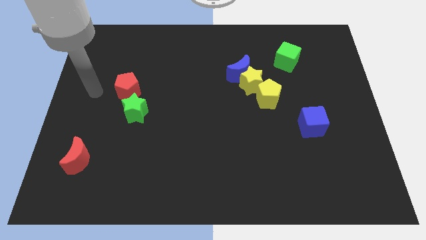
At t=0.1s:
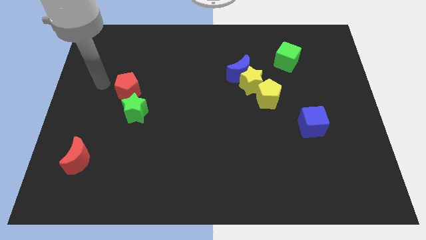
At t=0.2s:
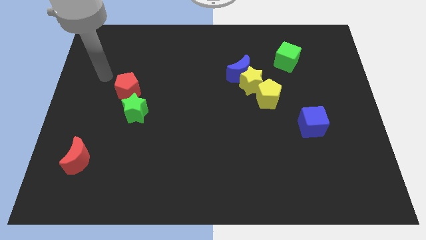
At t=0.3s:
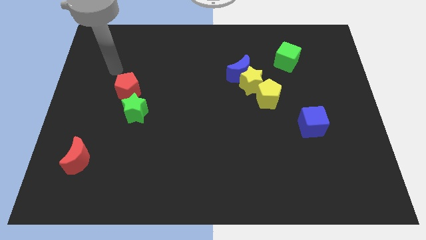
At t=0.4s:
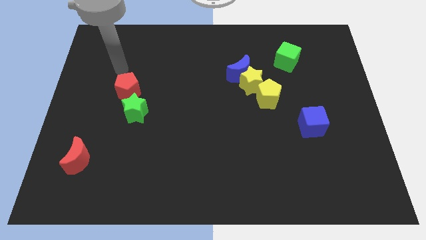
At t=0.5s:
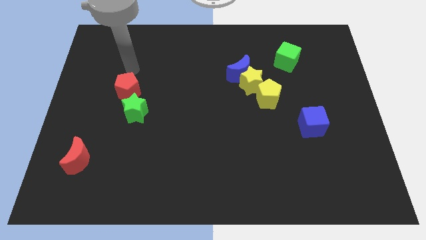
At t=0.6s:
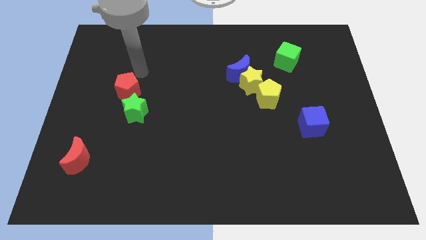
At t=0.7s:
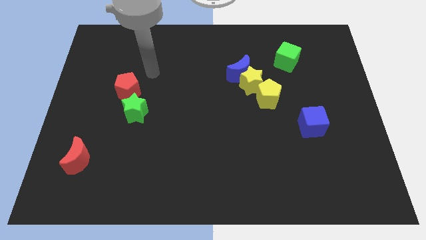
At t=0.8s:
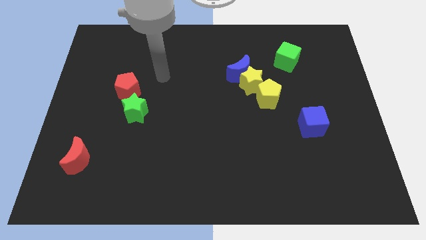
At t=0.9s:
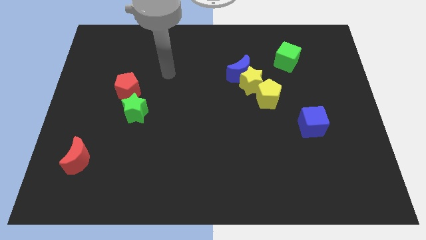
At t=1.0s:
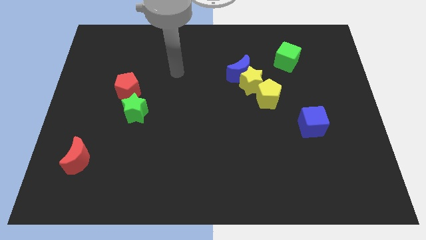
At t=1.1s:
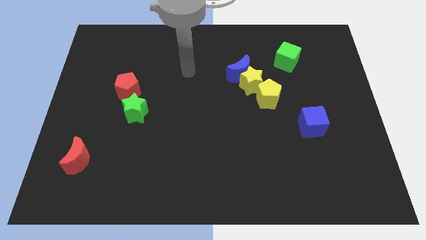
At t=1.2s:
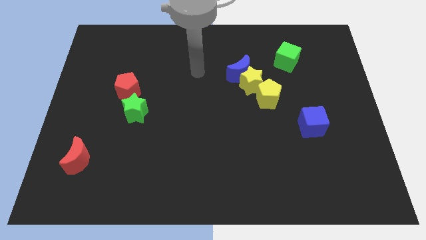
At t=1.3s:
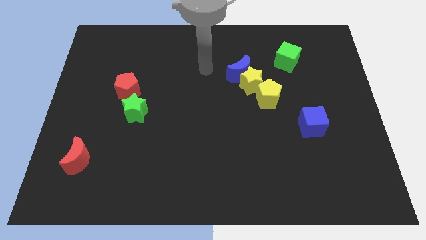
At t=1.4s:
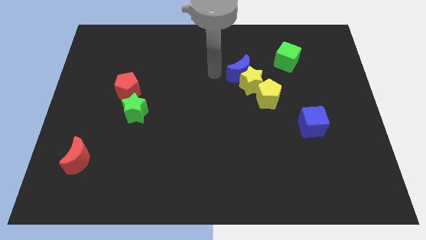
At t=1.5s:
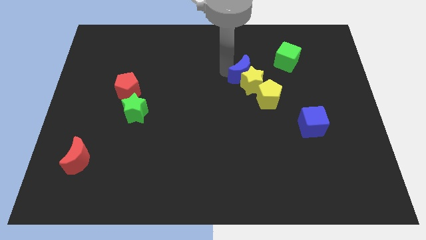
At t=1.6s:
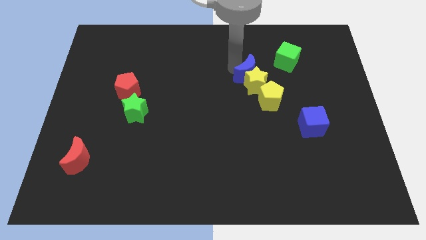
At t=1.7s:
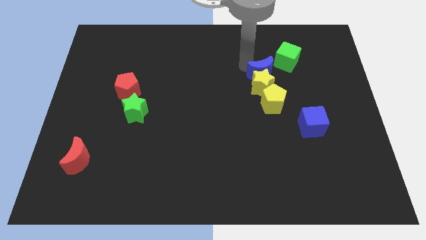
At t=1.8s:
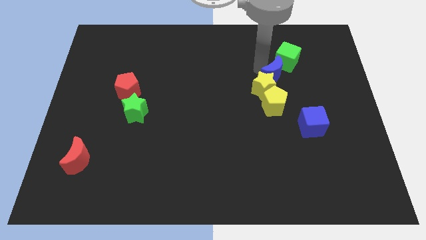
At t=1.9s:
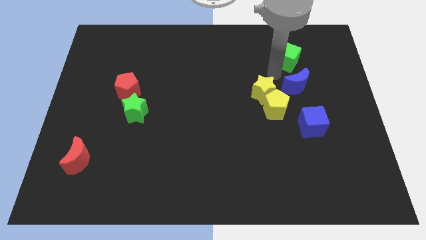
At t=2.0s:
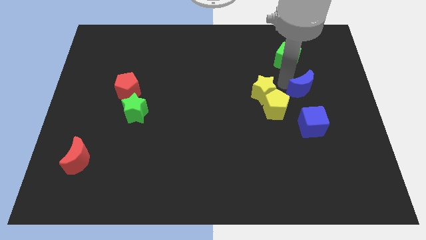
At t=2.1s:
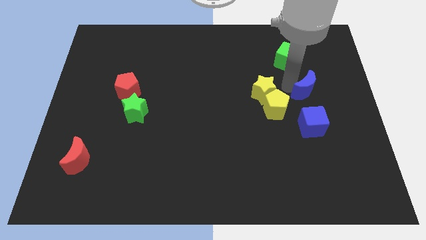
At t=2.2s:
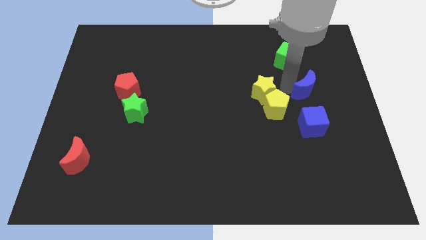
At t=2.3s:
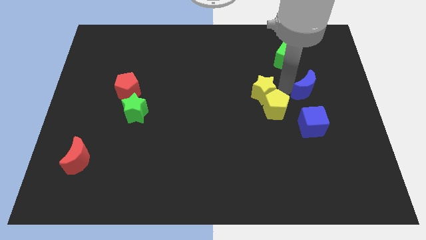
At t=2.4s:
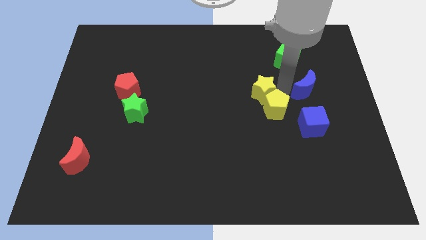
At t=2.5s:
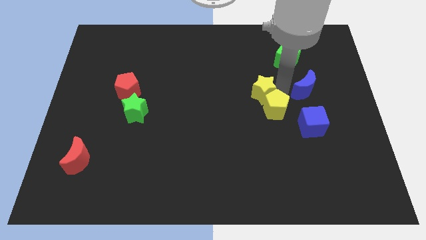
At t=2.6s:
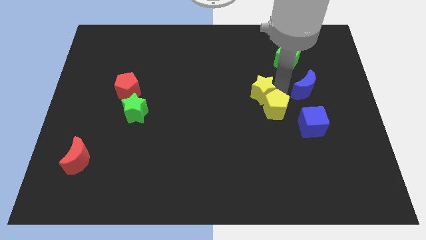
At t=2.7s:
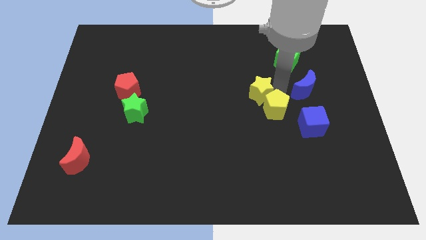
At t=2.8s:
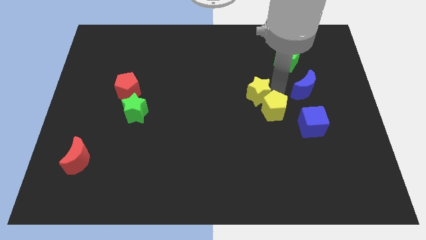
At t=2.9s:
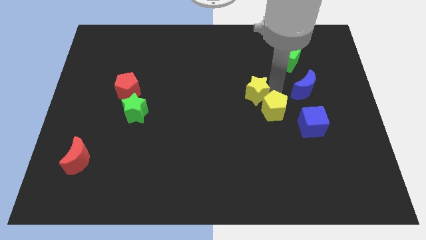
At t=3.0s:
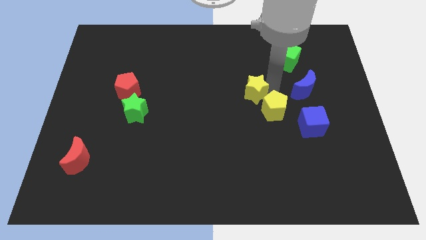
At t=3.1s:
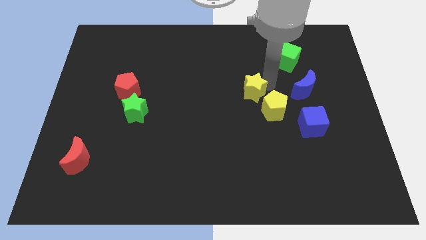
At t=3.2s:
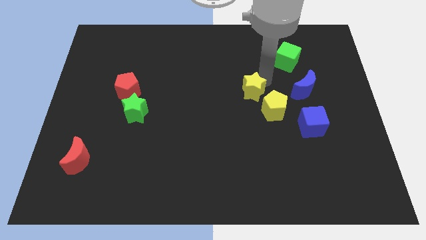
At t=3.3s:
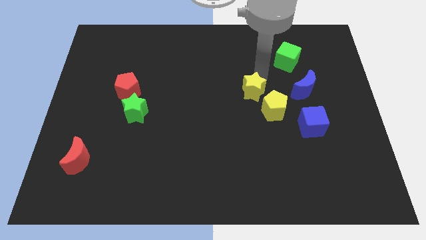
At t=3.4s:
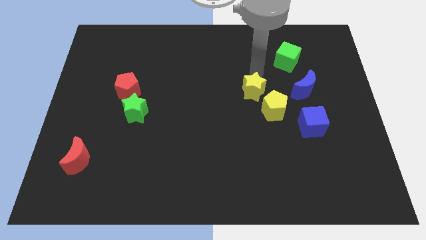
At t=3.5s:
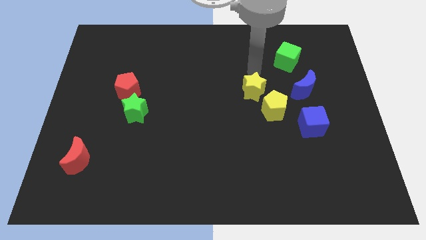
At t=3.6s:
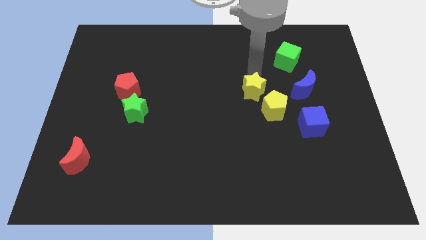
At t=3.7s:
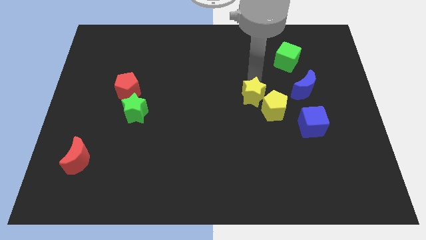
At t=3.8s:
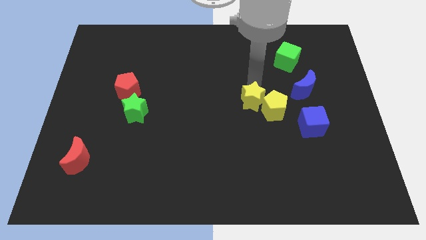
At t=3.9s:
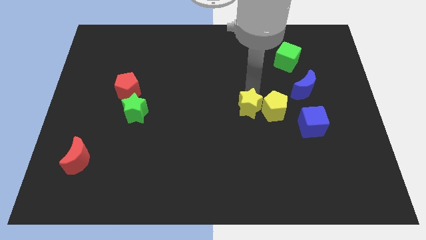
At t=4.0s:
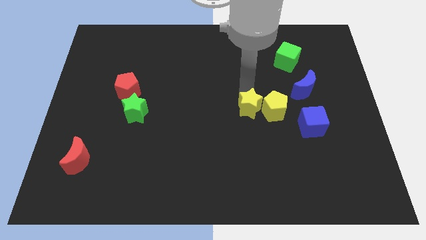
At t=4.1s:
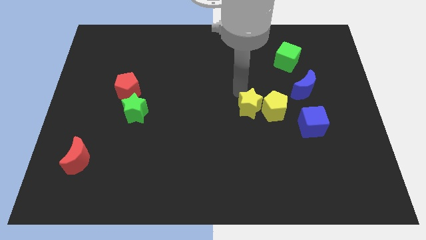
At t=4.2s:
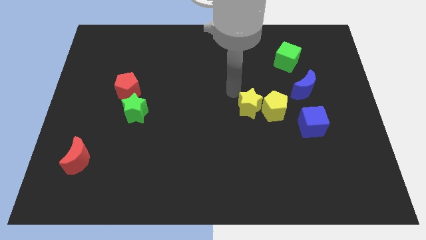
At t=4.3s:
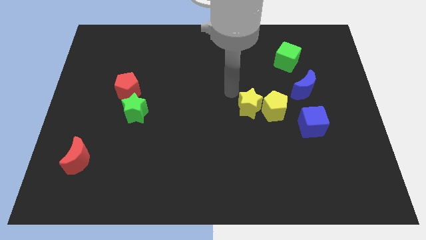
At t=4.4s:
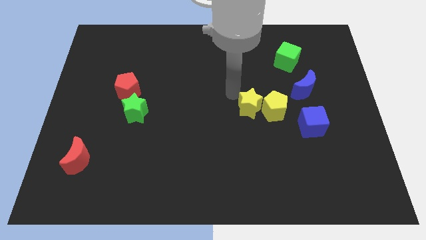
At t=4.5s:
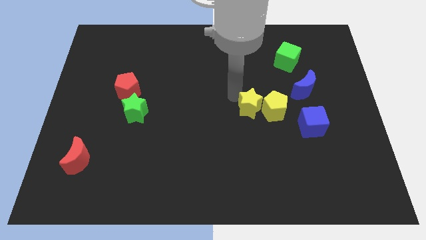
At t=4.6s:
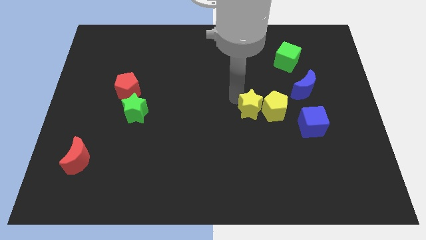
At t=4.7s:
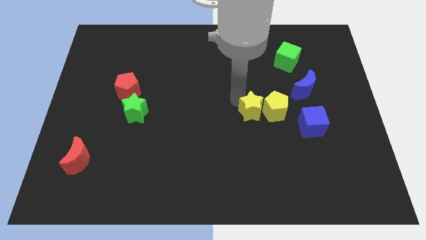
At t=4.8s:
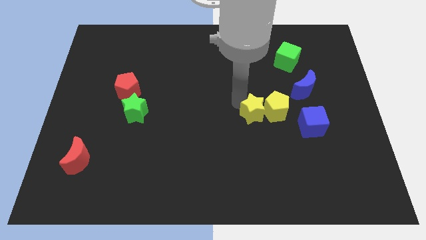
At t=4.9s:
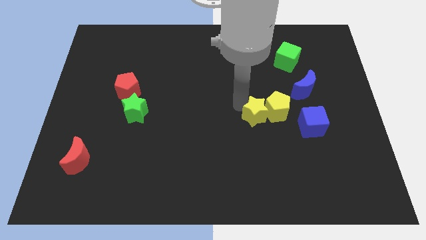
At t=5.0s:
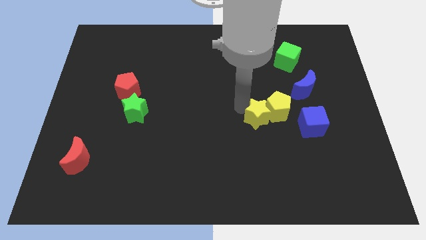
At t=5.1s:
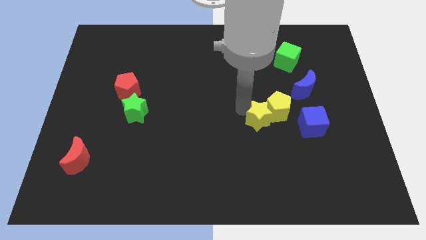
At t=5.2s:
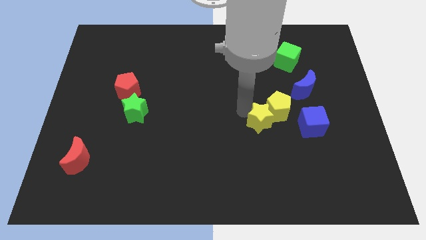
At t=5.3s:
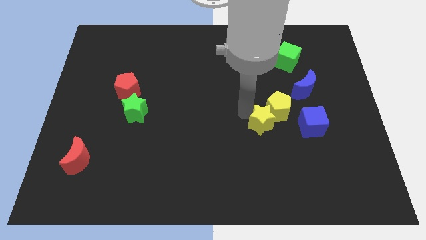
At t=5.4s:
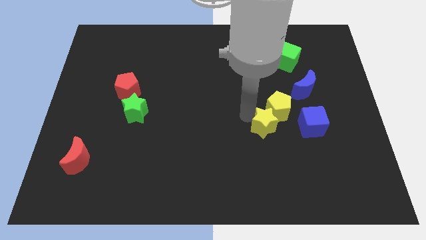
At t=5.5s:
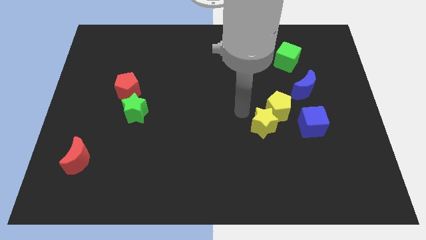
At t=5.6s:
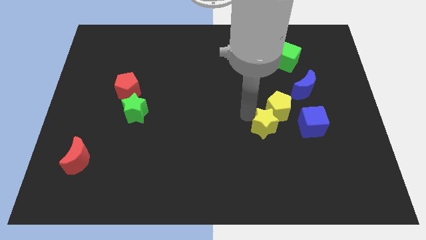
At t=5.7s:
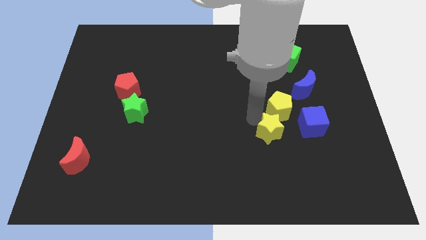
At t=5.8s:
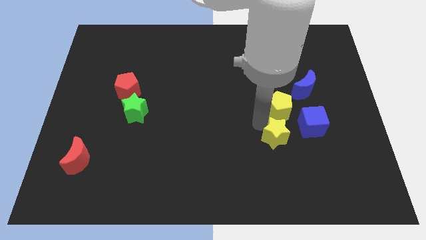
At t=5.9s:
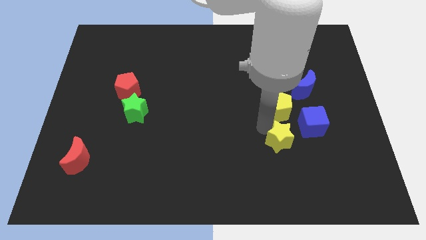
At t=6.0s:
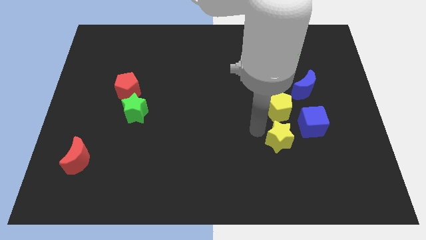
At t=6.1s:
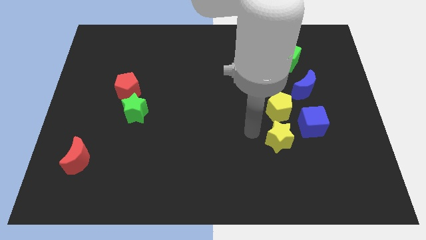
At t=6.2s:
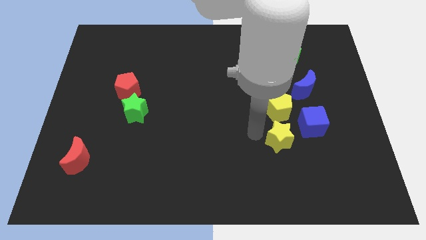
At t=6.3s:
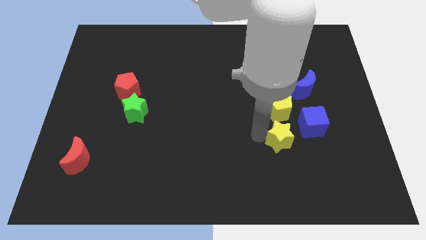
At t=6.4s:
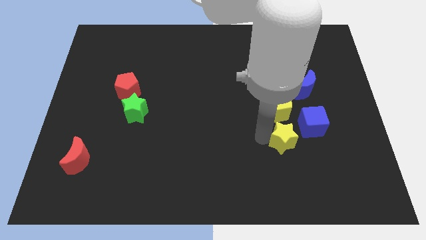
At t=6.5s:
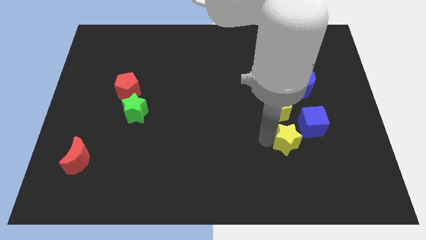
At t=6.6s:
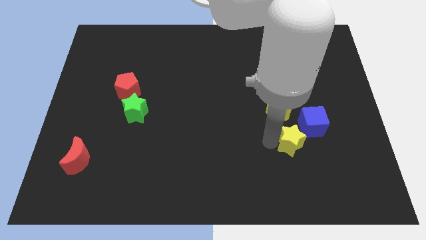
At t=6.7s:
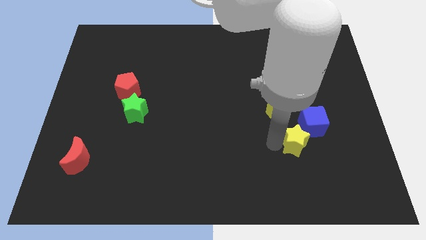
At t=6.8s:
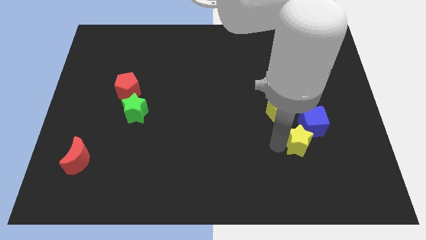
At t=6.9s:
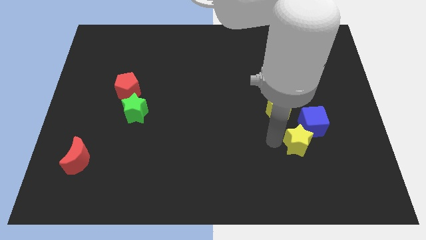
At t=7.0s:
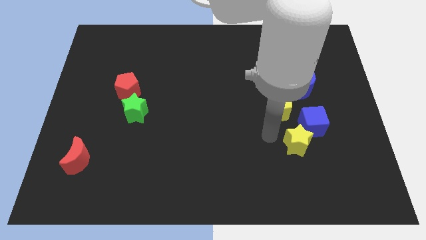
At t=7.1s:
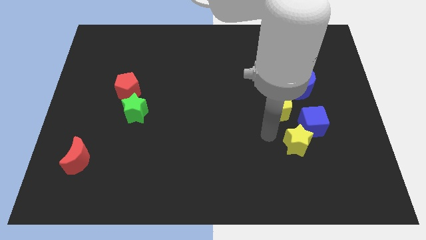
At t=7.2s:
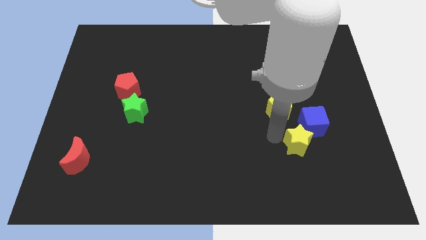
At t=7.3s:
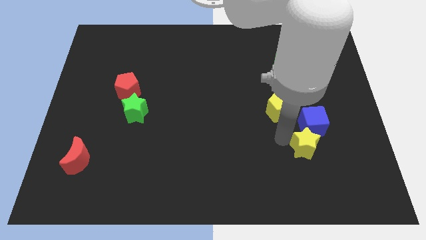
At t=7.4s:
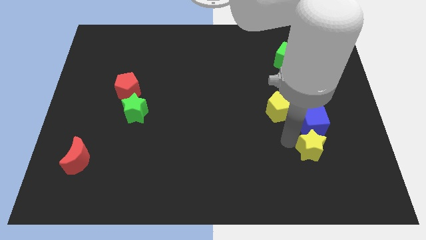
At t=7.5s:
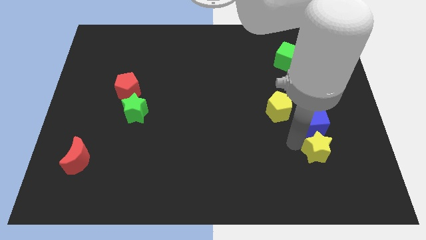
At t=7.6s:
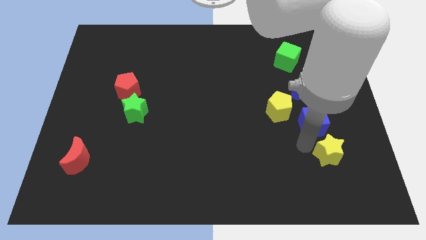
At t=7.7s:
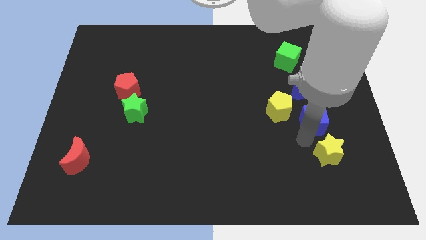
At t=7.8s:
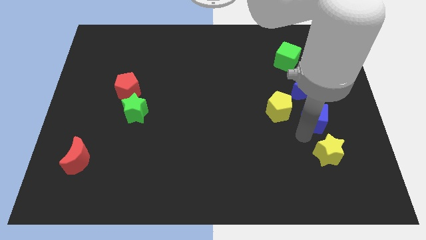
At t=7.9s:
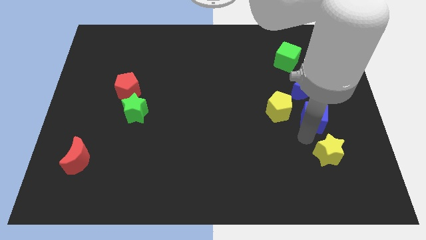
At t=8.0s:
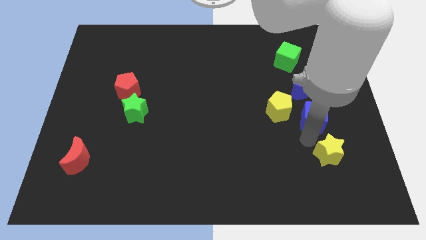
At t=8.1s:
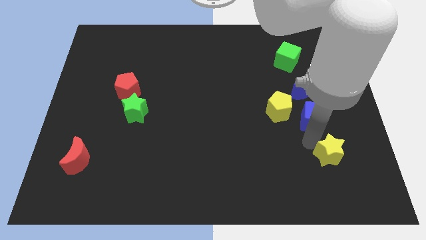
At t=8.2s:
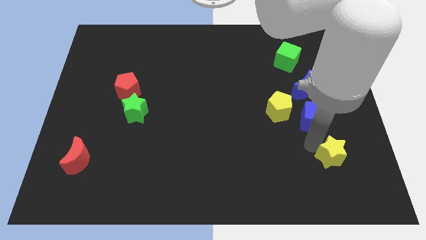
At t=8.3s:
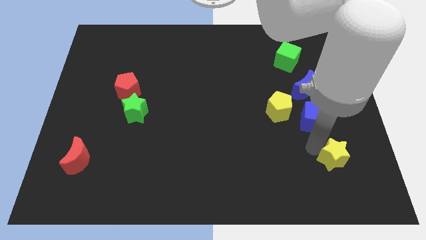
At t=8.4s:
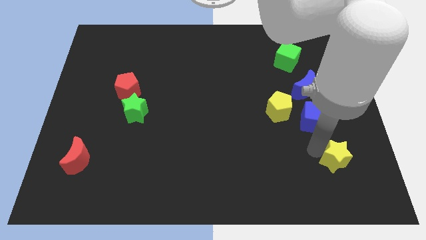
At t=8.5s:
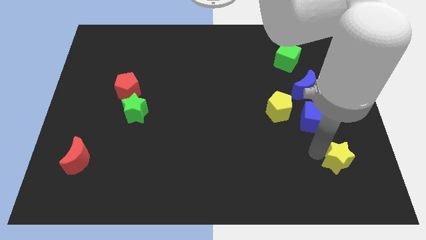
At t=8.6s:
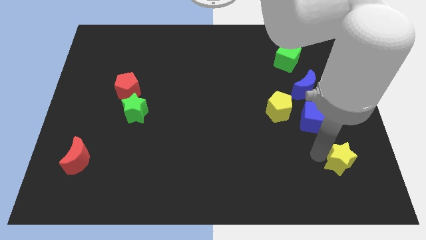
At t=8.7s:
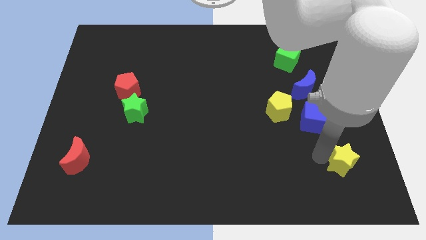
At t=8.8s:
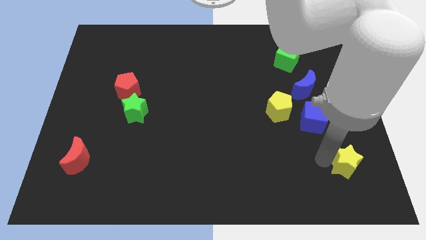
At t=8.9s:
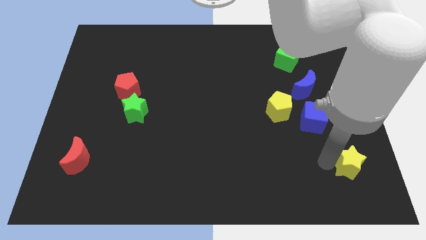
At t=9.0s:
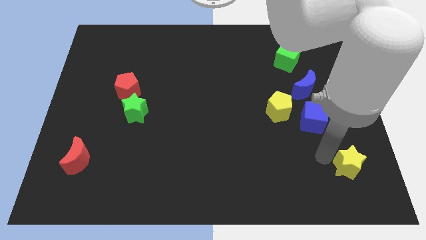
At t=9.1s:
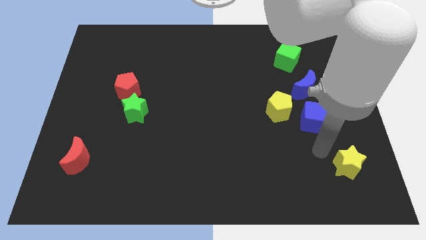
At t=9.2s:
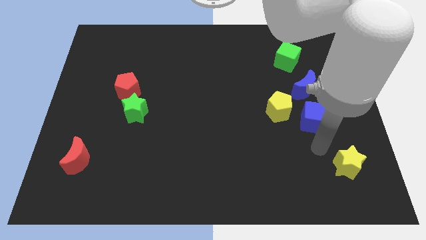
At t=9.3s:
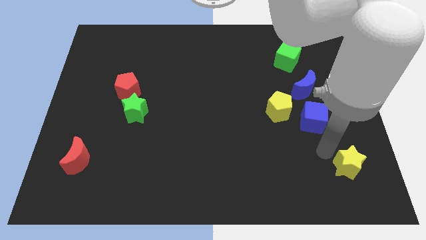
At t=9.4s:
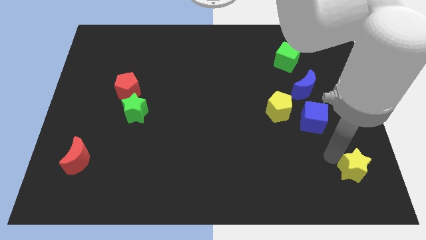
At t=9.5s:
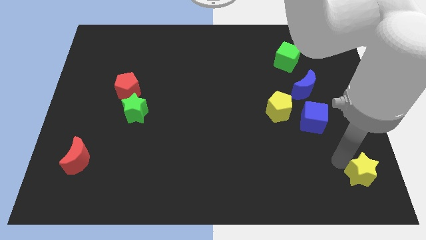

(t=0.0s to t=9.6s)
push the yellow star to the lower right corner
